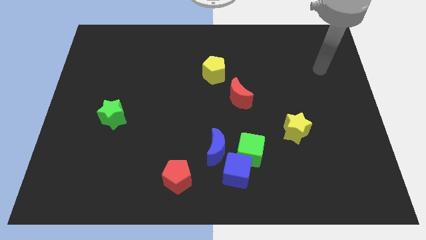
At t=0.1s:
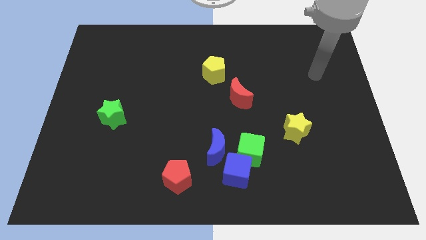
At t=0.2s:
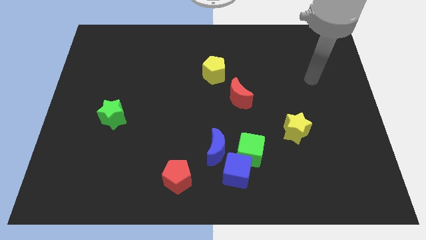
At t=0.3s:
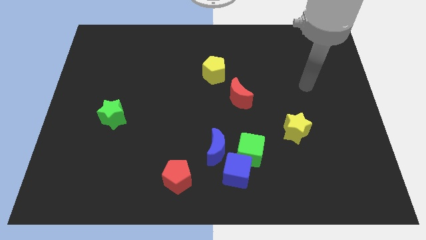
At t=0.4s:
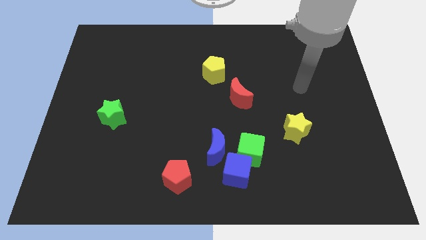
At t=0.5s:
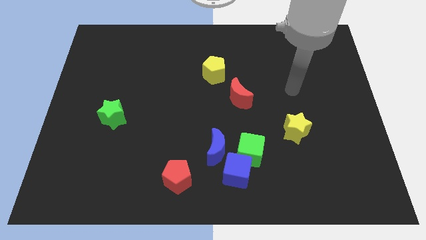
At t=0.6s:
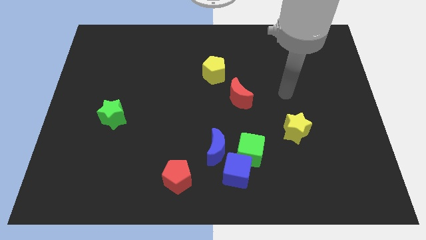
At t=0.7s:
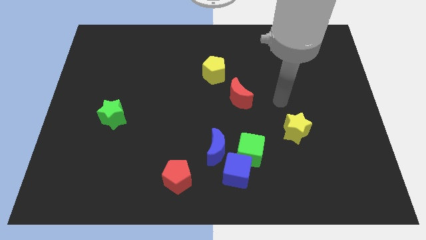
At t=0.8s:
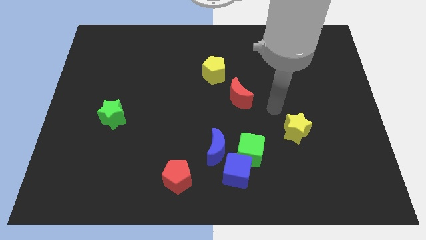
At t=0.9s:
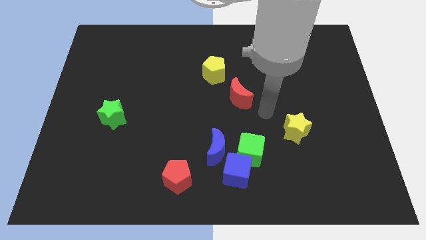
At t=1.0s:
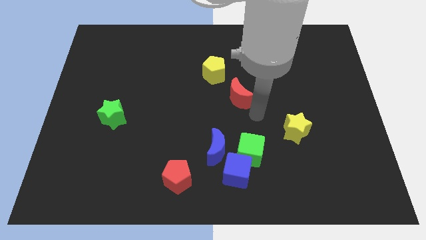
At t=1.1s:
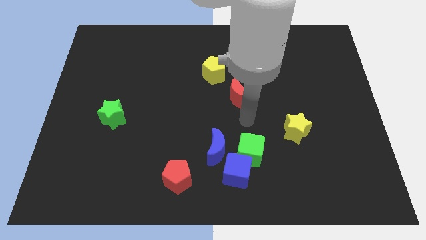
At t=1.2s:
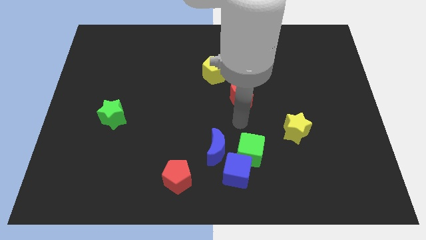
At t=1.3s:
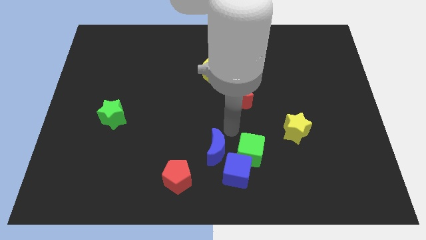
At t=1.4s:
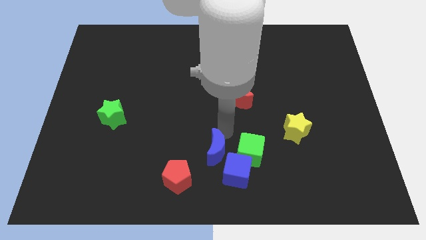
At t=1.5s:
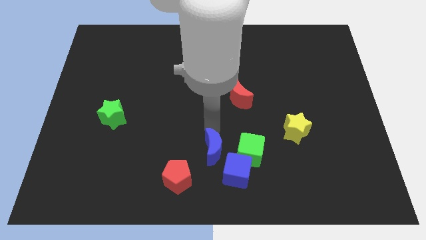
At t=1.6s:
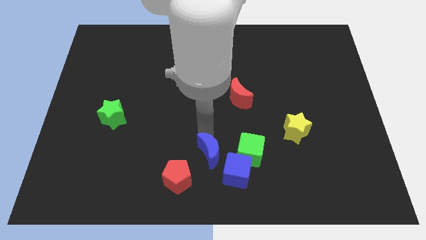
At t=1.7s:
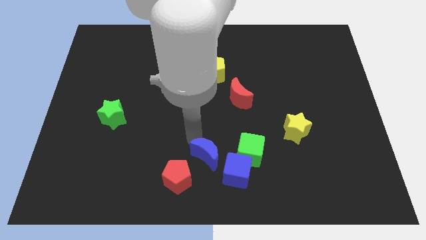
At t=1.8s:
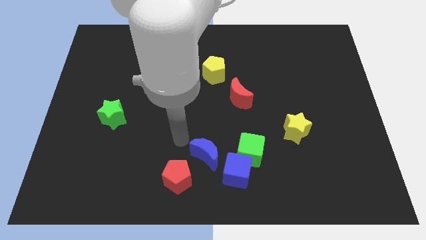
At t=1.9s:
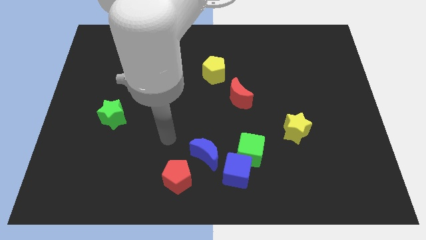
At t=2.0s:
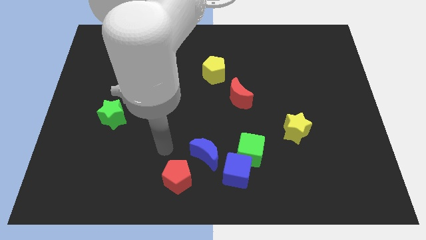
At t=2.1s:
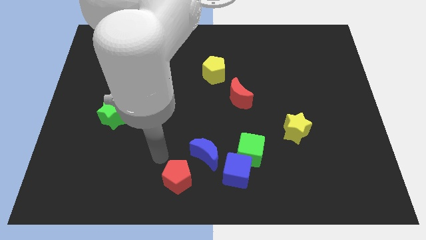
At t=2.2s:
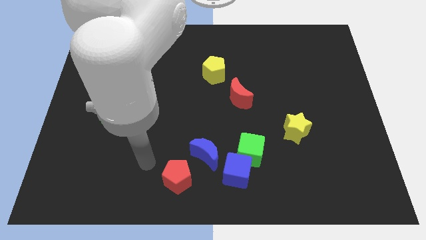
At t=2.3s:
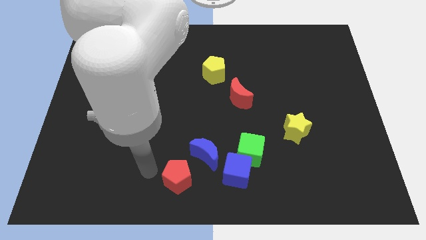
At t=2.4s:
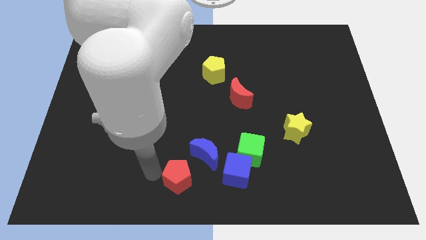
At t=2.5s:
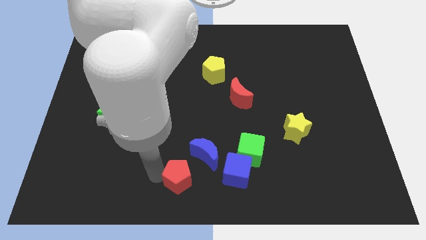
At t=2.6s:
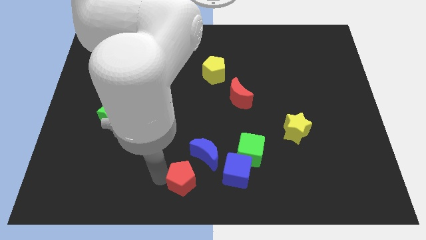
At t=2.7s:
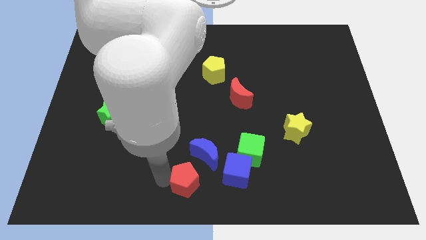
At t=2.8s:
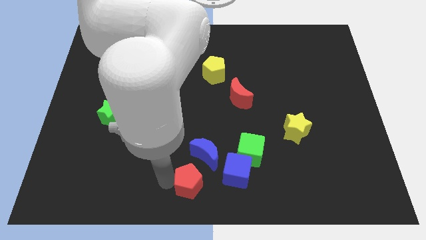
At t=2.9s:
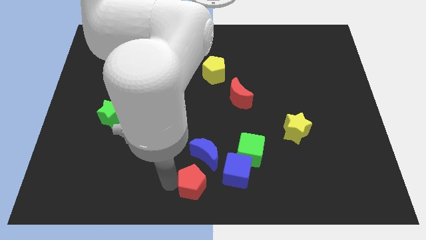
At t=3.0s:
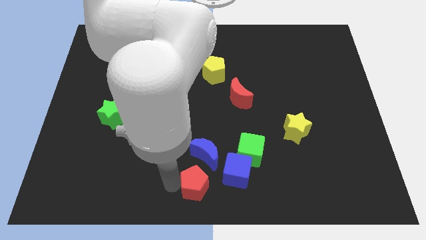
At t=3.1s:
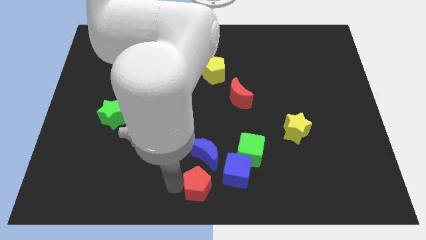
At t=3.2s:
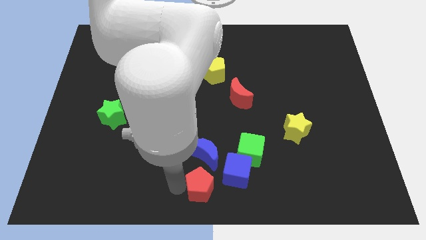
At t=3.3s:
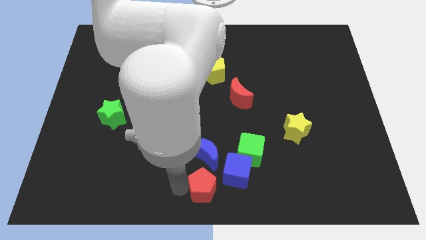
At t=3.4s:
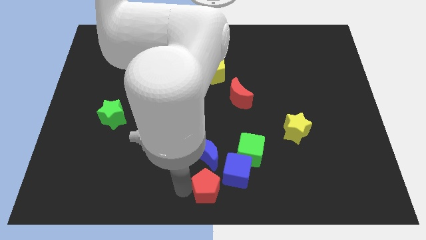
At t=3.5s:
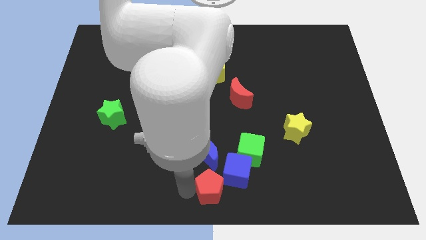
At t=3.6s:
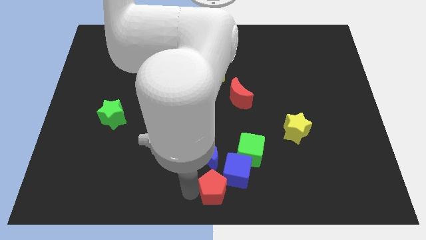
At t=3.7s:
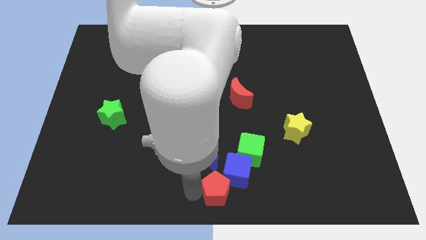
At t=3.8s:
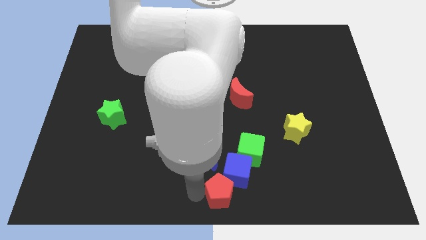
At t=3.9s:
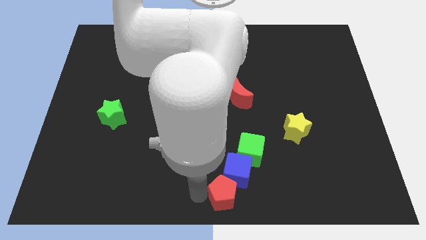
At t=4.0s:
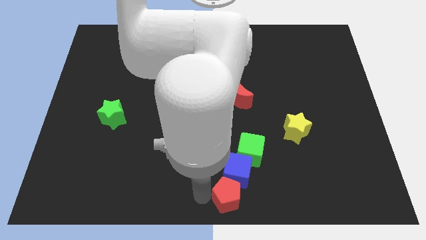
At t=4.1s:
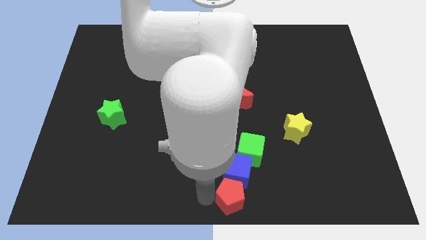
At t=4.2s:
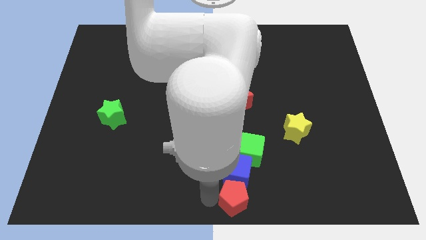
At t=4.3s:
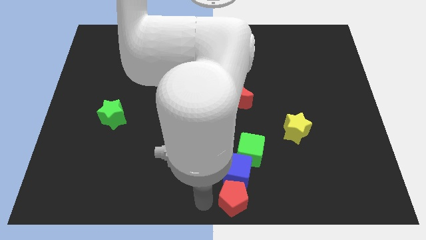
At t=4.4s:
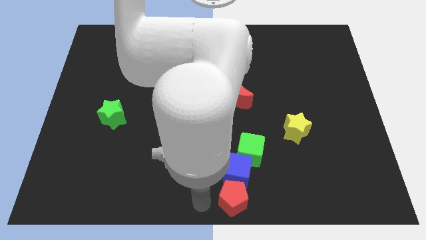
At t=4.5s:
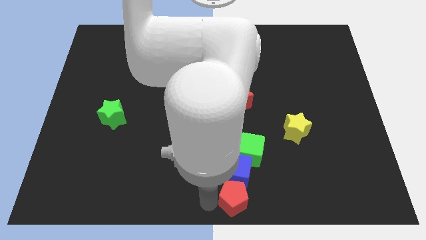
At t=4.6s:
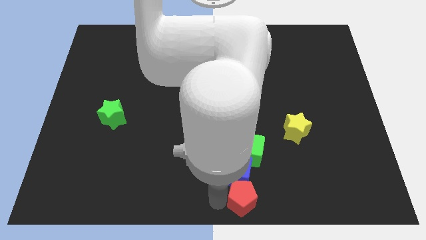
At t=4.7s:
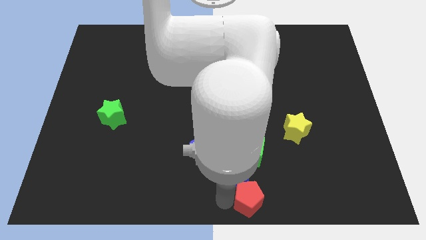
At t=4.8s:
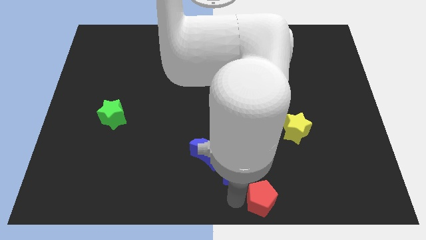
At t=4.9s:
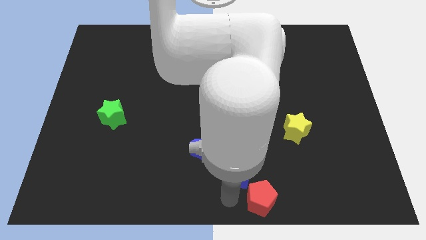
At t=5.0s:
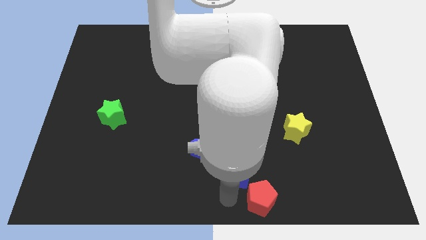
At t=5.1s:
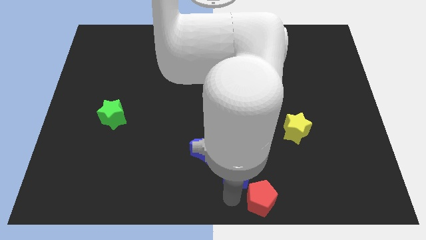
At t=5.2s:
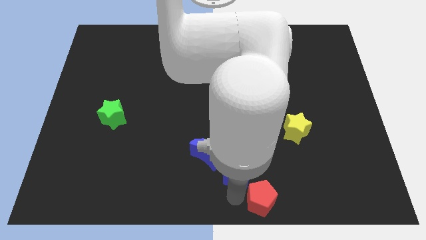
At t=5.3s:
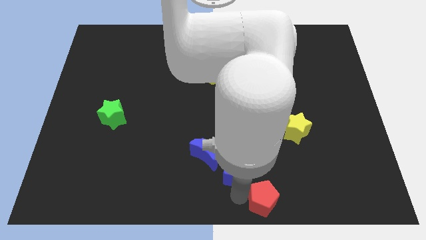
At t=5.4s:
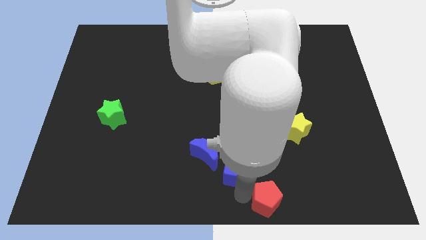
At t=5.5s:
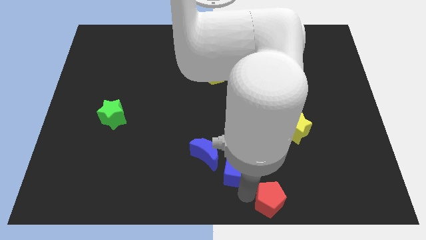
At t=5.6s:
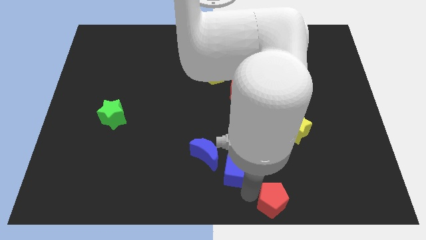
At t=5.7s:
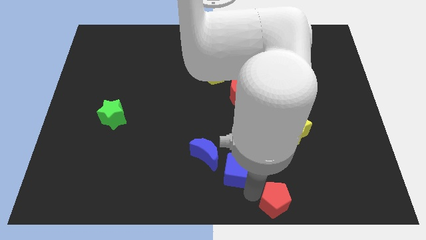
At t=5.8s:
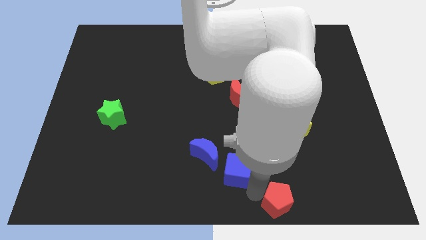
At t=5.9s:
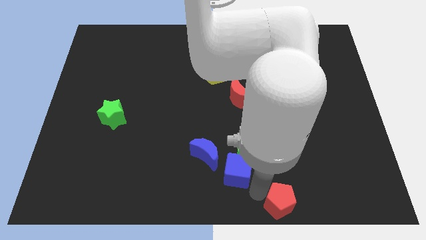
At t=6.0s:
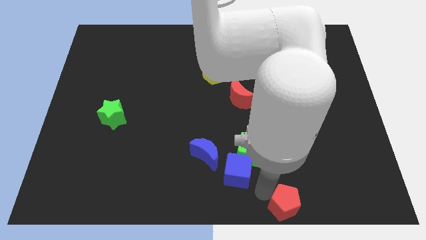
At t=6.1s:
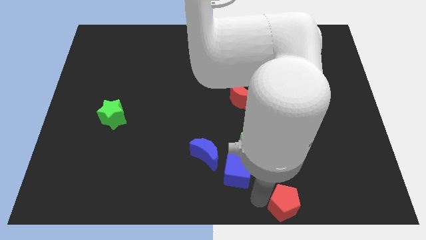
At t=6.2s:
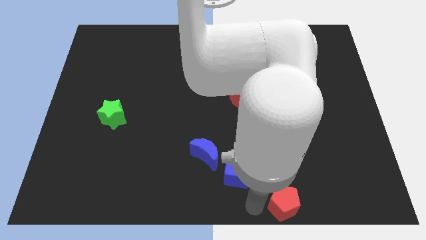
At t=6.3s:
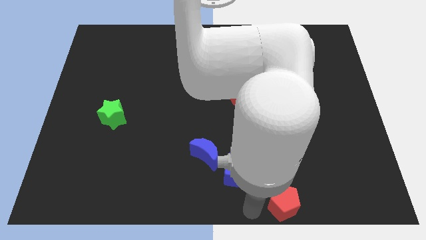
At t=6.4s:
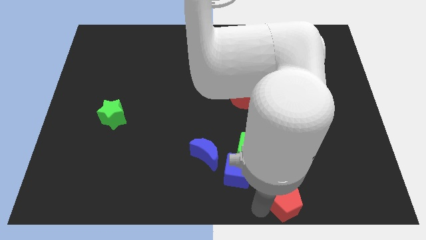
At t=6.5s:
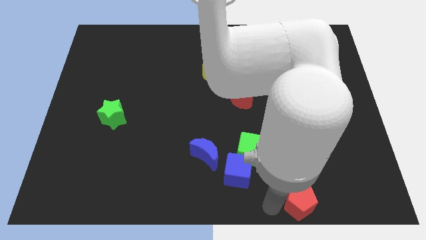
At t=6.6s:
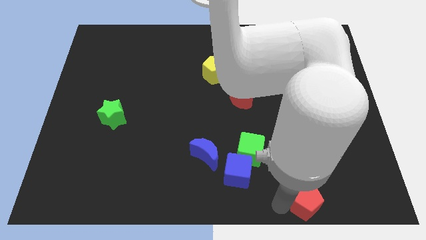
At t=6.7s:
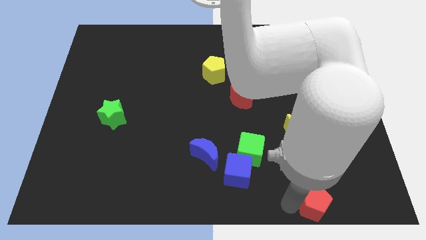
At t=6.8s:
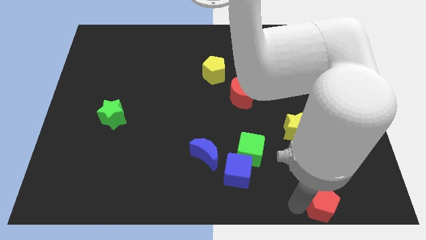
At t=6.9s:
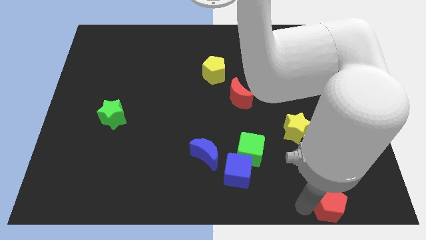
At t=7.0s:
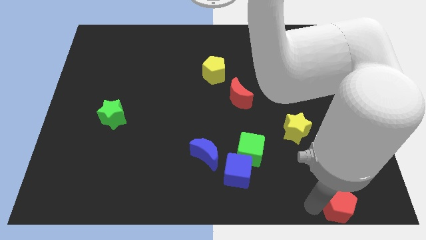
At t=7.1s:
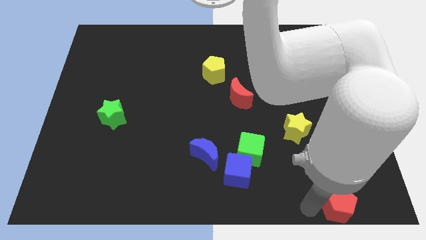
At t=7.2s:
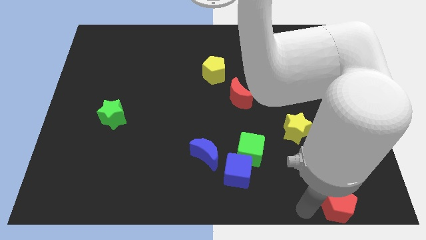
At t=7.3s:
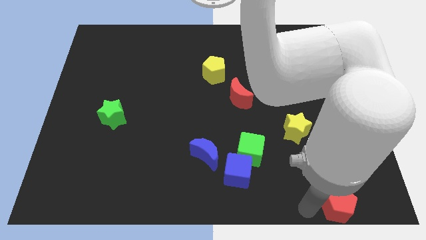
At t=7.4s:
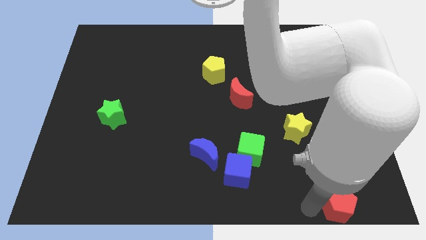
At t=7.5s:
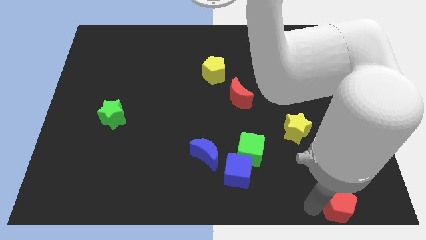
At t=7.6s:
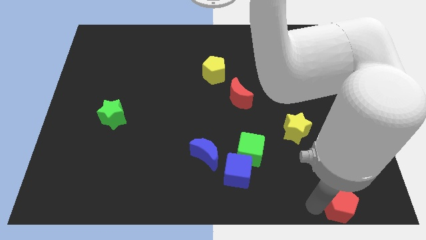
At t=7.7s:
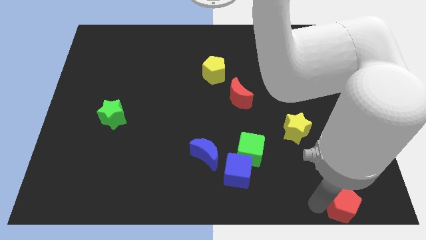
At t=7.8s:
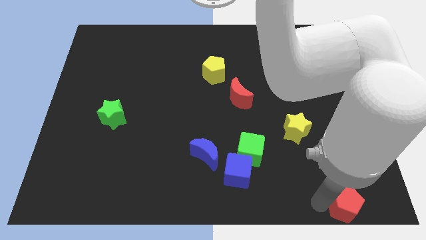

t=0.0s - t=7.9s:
push the red pentagon to the bottom right of the board
